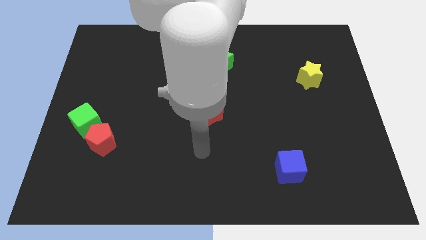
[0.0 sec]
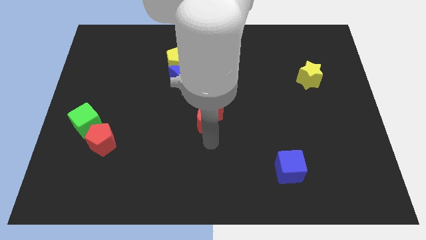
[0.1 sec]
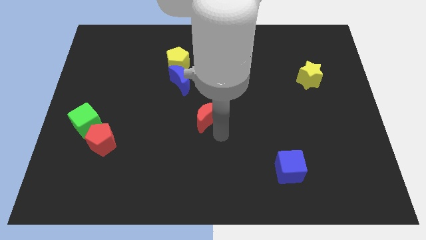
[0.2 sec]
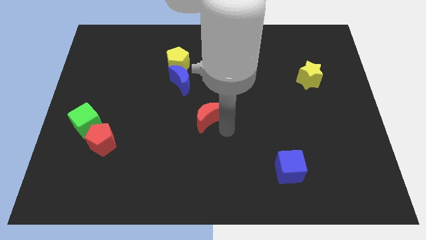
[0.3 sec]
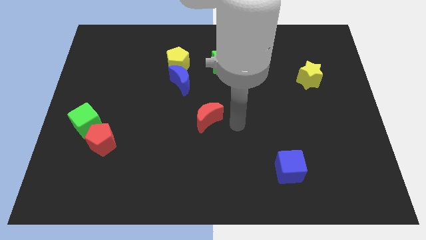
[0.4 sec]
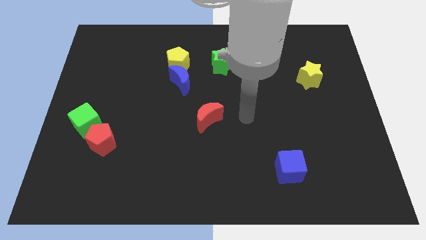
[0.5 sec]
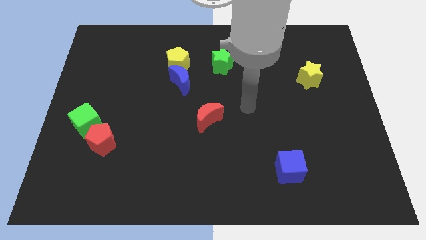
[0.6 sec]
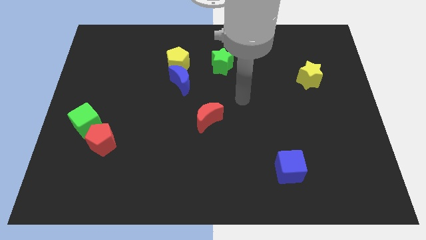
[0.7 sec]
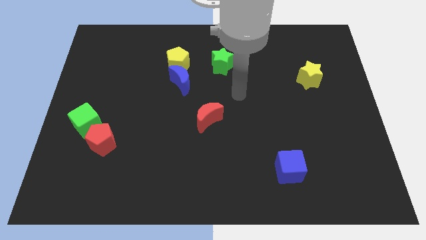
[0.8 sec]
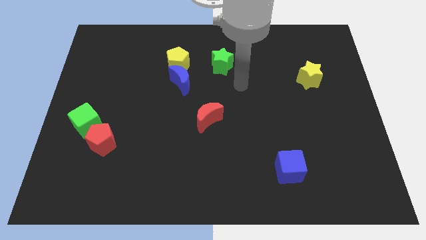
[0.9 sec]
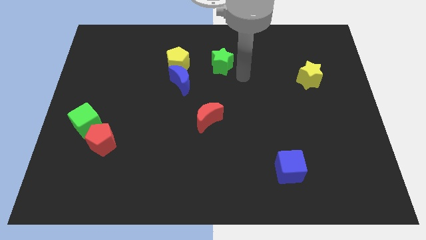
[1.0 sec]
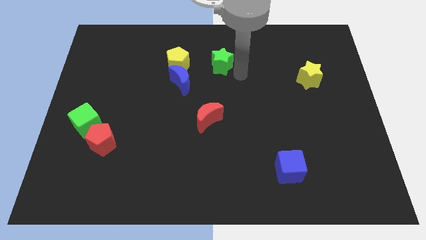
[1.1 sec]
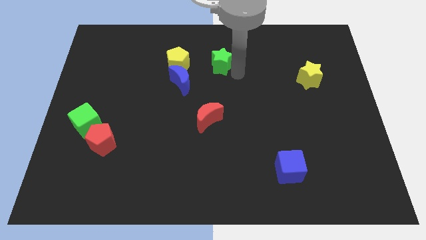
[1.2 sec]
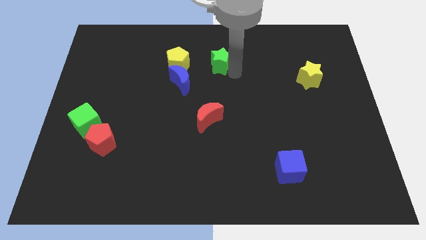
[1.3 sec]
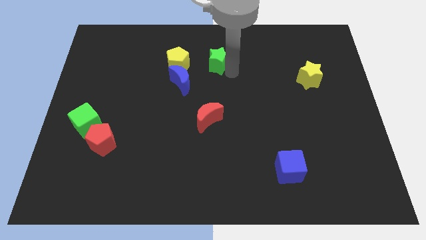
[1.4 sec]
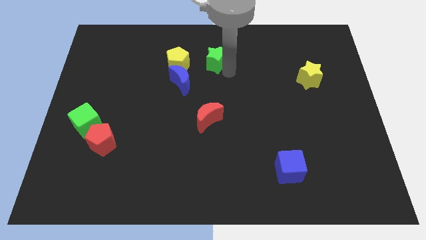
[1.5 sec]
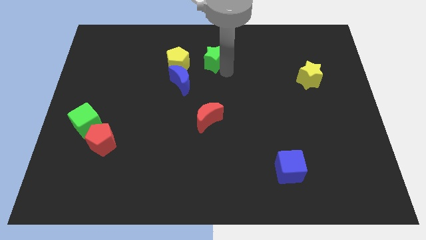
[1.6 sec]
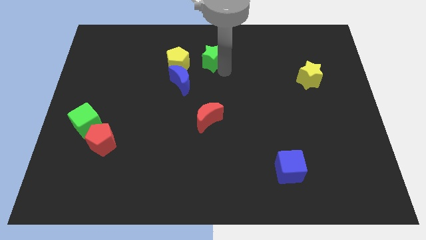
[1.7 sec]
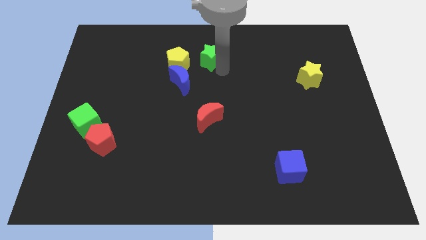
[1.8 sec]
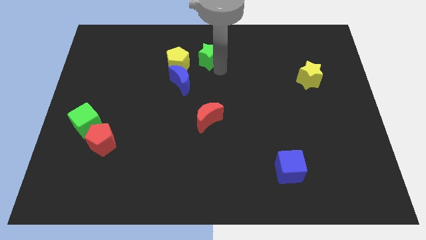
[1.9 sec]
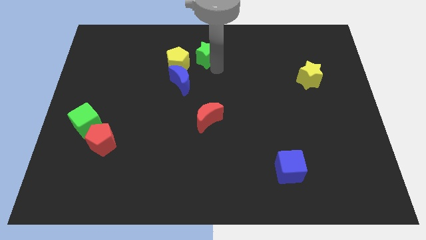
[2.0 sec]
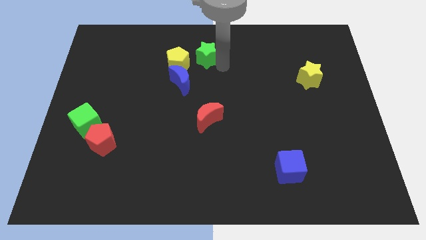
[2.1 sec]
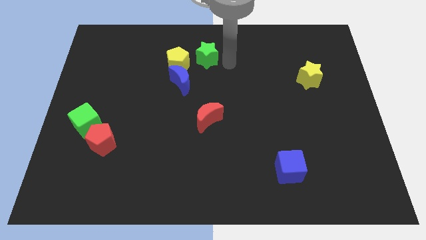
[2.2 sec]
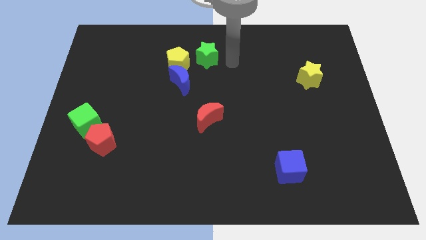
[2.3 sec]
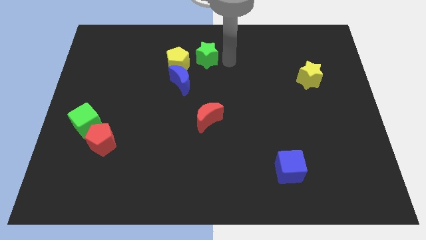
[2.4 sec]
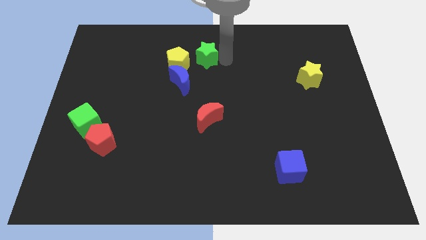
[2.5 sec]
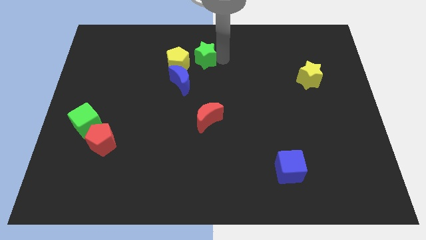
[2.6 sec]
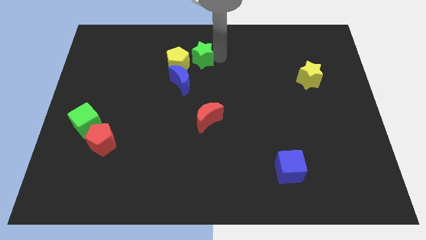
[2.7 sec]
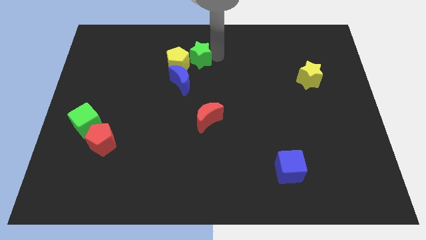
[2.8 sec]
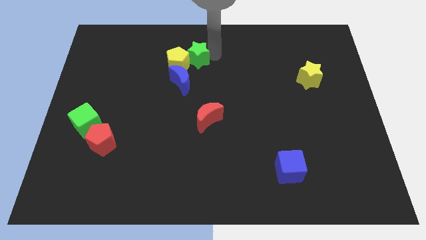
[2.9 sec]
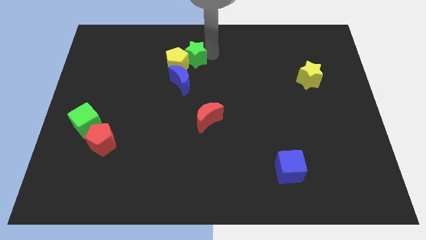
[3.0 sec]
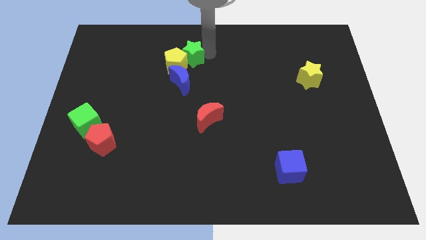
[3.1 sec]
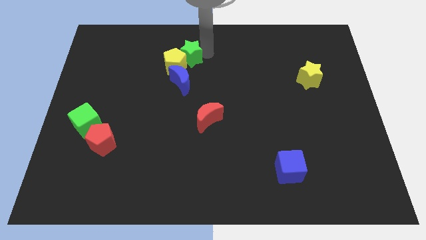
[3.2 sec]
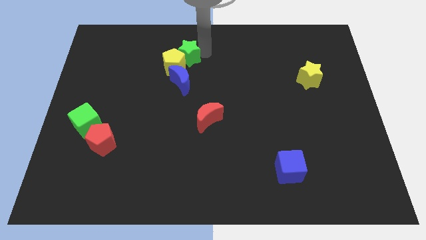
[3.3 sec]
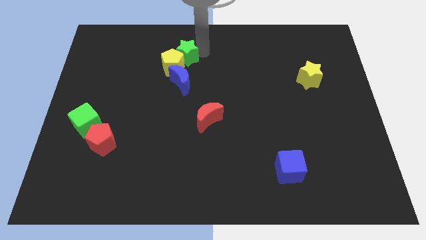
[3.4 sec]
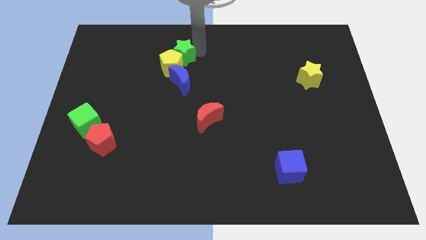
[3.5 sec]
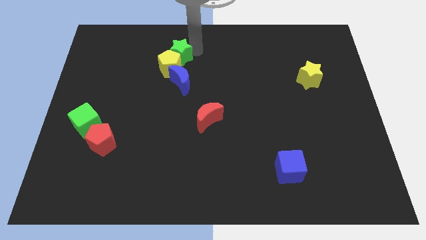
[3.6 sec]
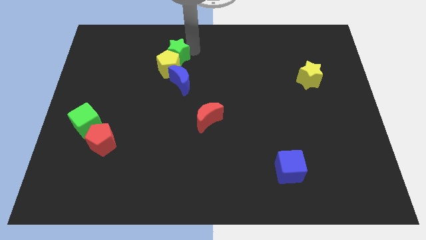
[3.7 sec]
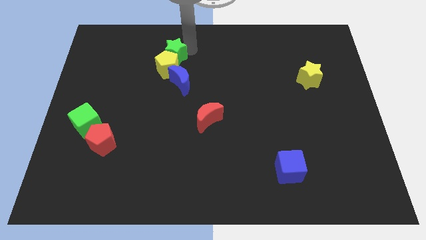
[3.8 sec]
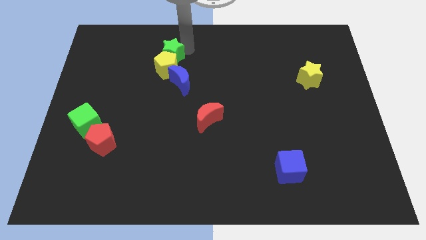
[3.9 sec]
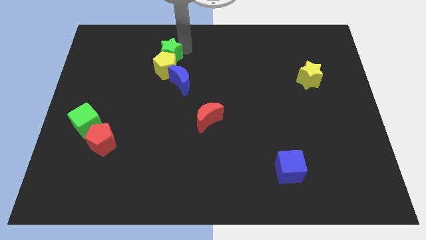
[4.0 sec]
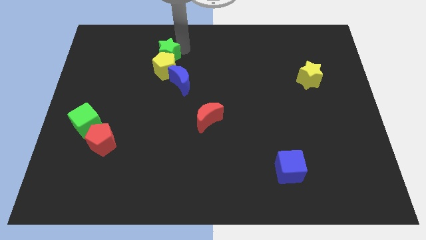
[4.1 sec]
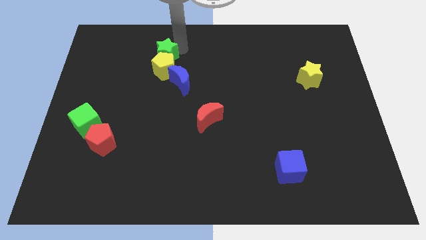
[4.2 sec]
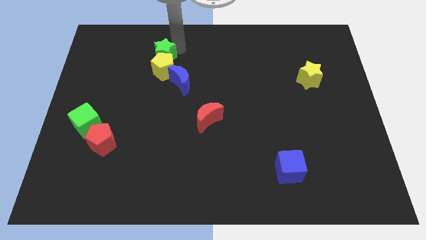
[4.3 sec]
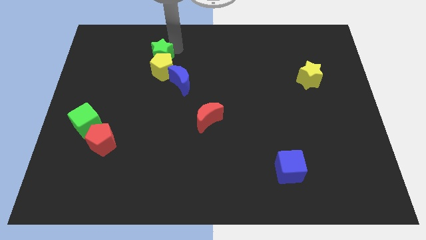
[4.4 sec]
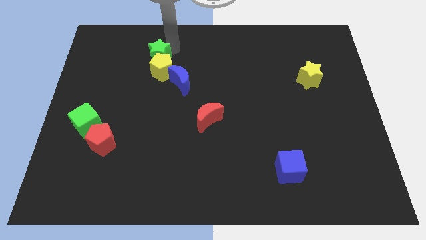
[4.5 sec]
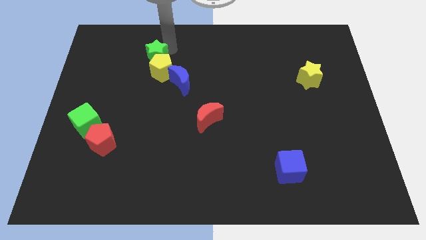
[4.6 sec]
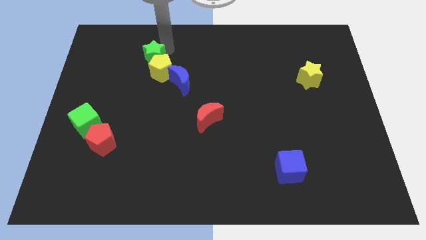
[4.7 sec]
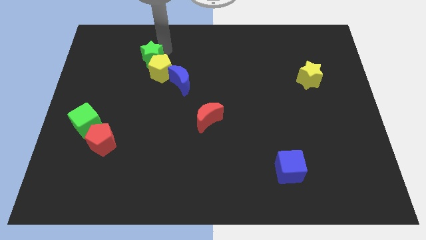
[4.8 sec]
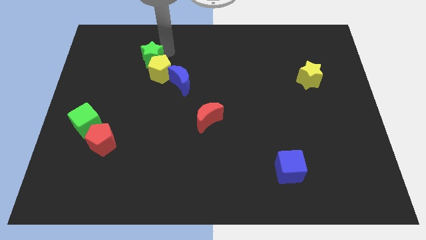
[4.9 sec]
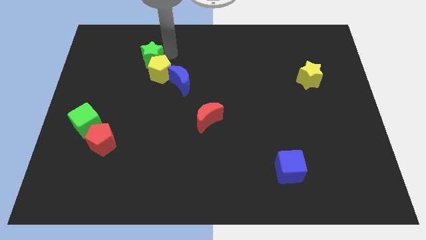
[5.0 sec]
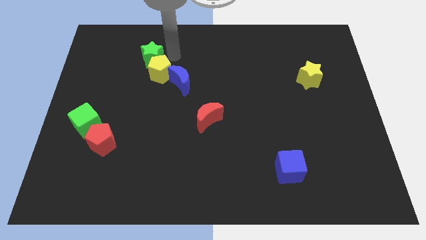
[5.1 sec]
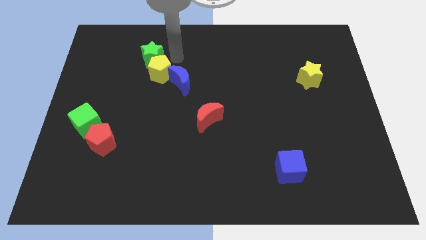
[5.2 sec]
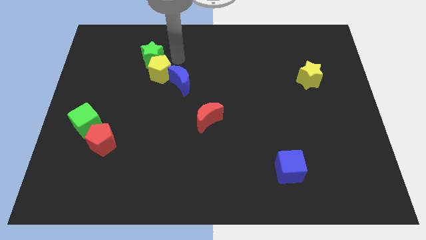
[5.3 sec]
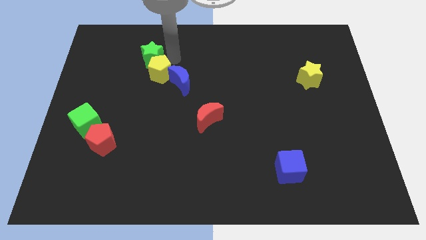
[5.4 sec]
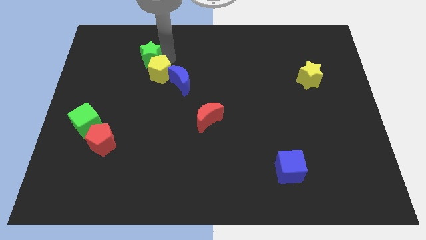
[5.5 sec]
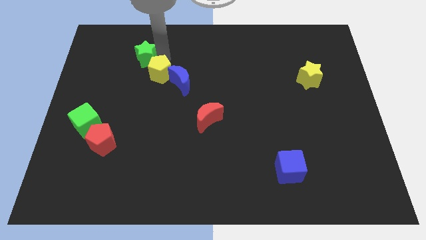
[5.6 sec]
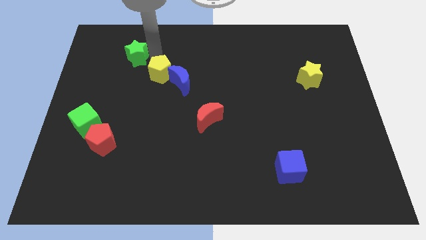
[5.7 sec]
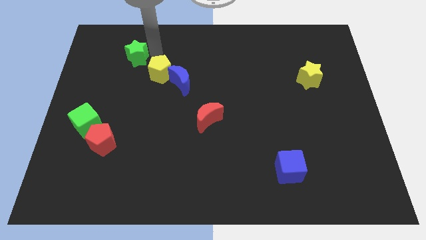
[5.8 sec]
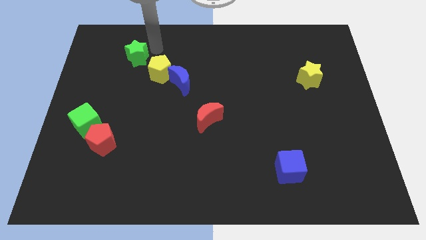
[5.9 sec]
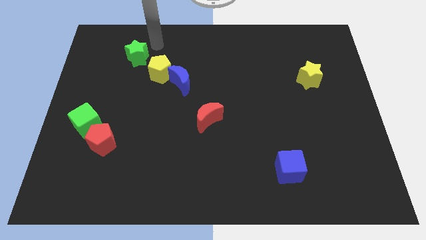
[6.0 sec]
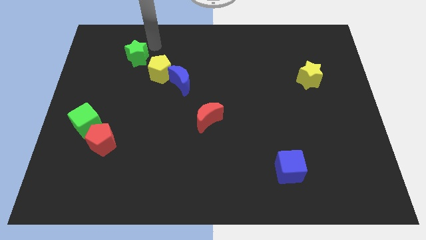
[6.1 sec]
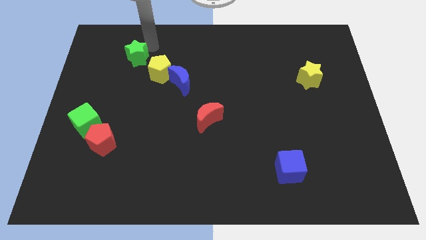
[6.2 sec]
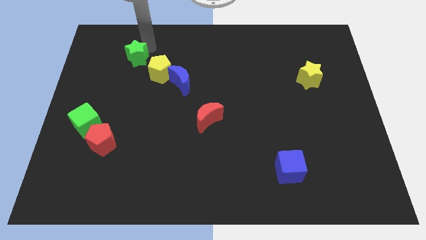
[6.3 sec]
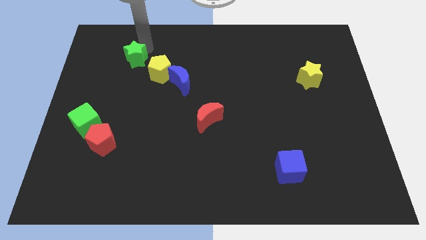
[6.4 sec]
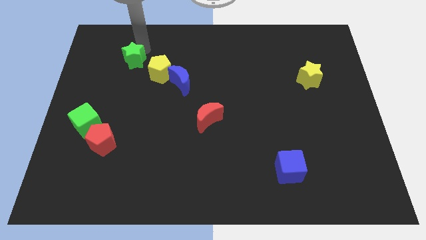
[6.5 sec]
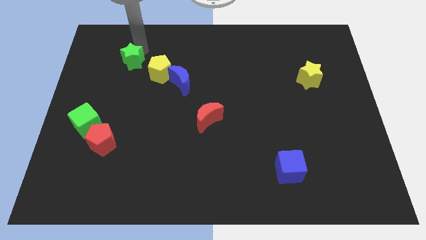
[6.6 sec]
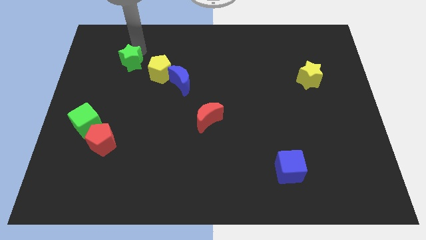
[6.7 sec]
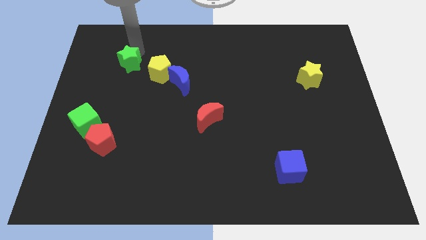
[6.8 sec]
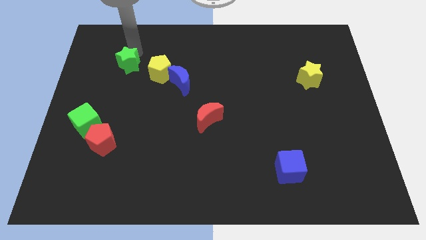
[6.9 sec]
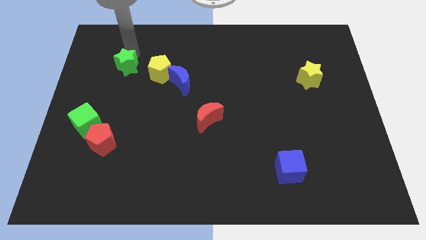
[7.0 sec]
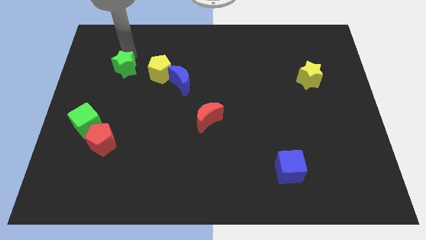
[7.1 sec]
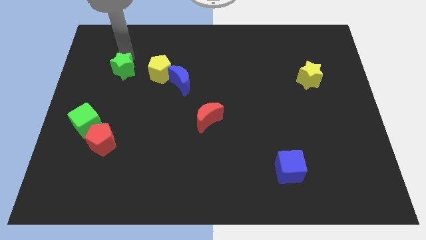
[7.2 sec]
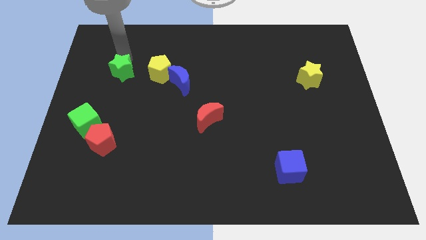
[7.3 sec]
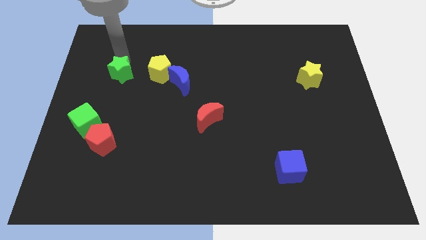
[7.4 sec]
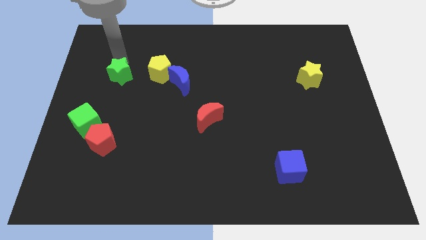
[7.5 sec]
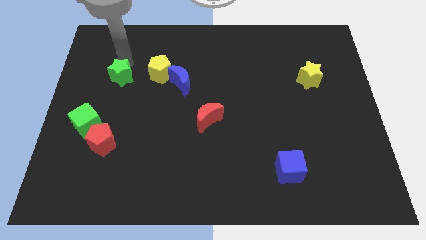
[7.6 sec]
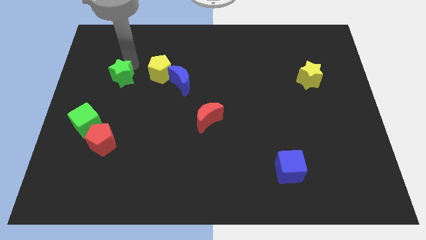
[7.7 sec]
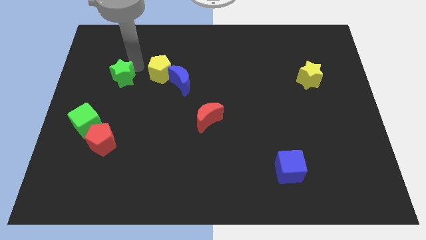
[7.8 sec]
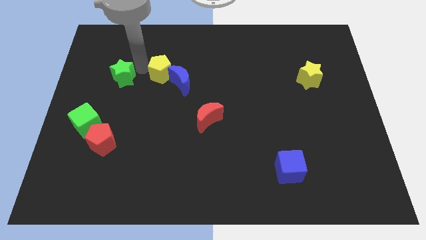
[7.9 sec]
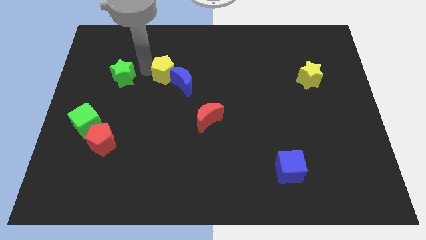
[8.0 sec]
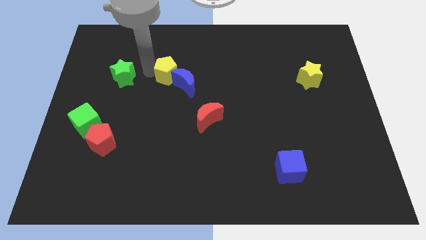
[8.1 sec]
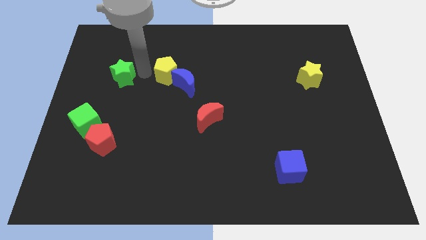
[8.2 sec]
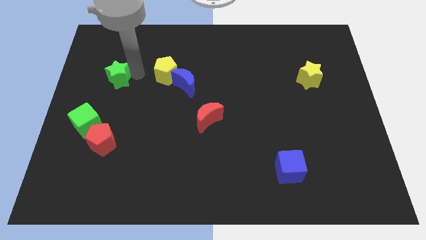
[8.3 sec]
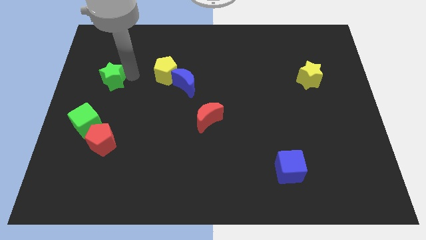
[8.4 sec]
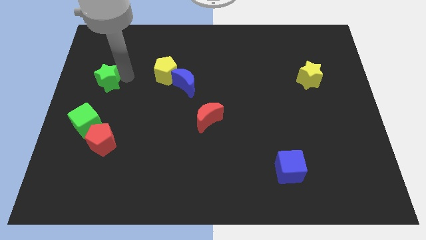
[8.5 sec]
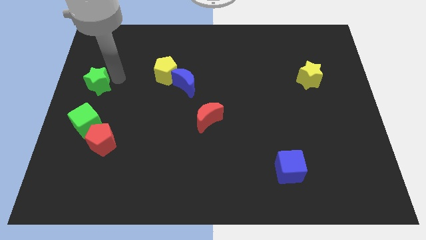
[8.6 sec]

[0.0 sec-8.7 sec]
slide the green star to the left side
